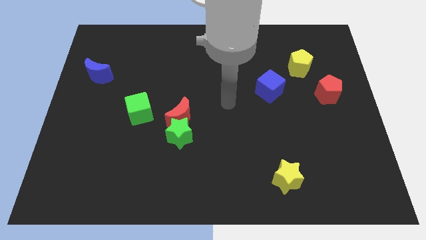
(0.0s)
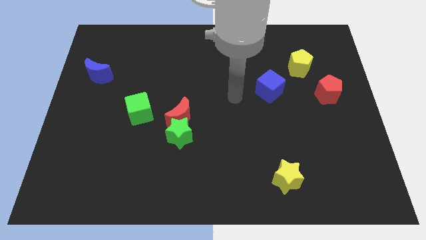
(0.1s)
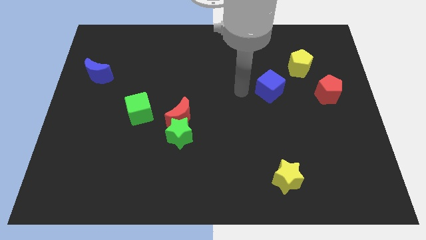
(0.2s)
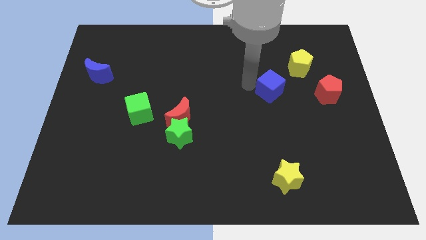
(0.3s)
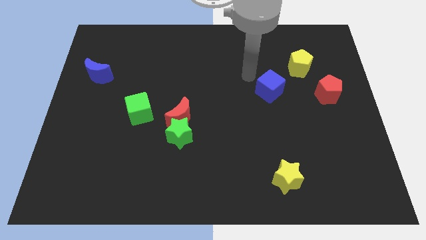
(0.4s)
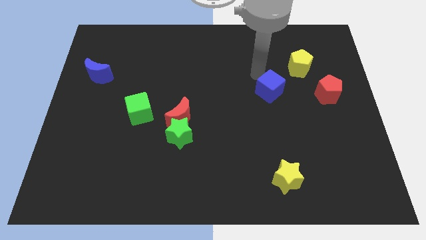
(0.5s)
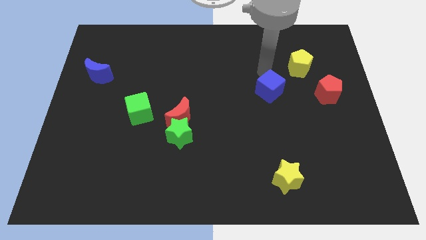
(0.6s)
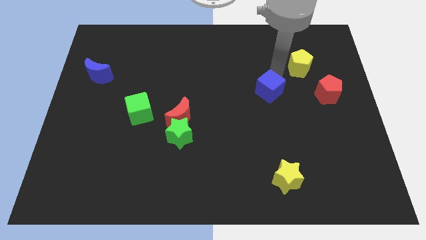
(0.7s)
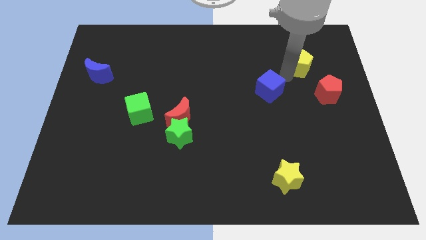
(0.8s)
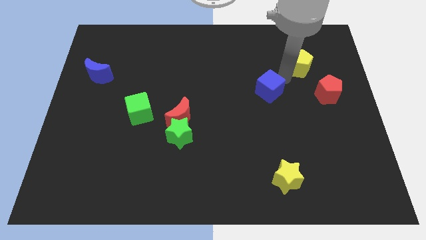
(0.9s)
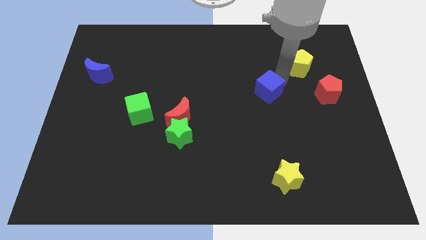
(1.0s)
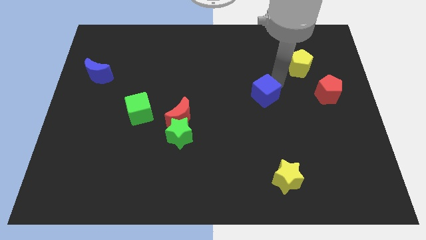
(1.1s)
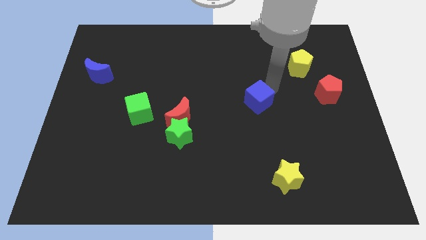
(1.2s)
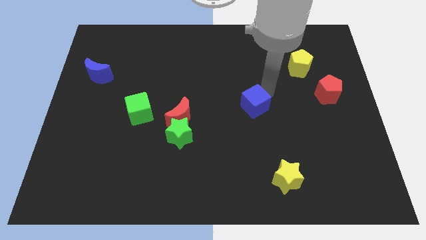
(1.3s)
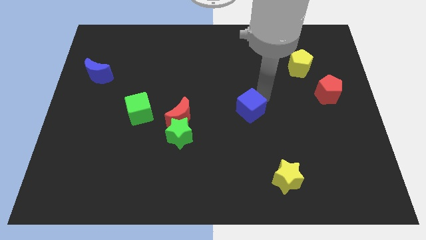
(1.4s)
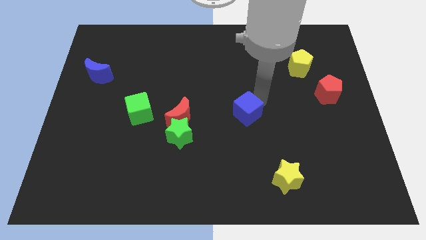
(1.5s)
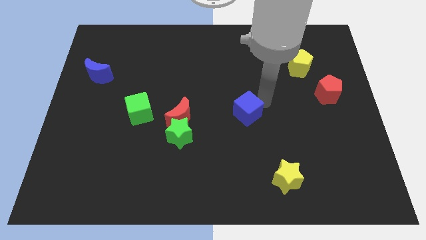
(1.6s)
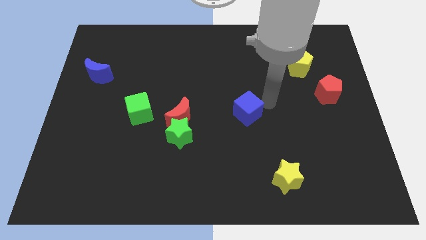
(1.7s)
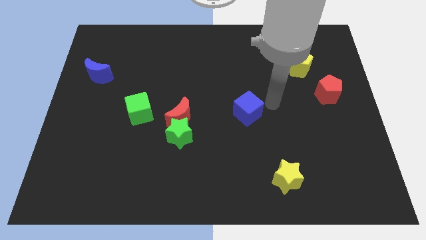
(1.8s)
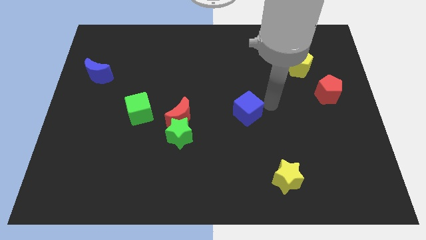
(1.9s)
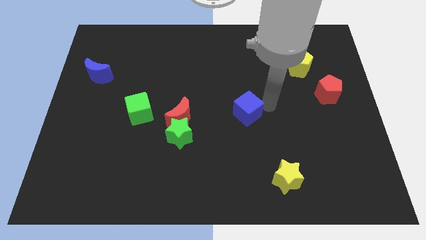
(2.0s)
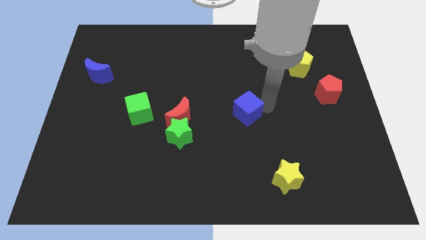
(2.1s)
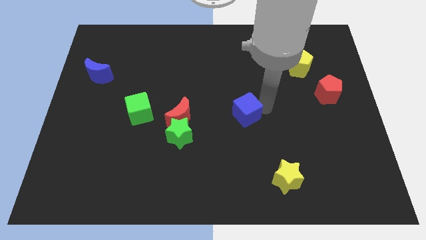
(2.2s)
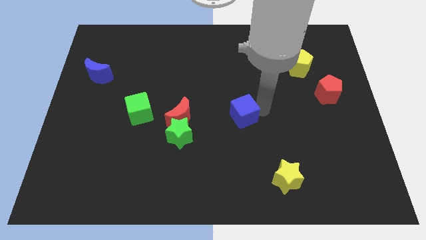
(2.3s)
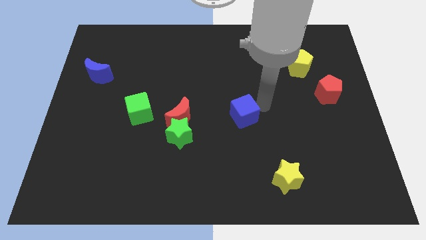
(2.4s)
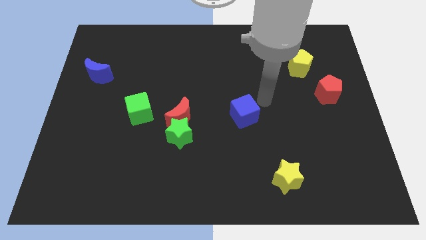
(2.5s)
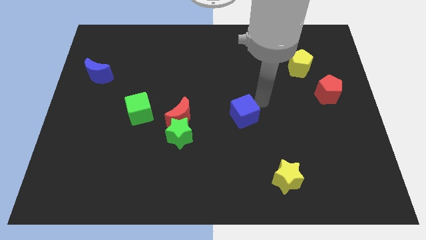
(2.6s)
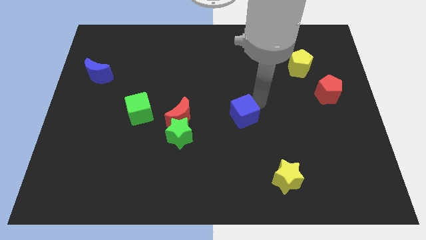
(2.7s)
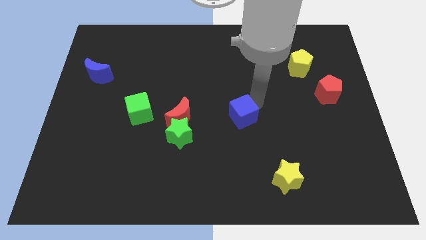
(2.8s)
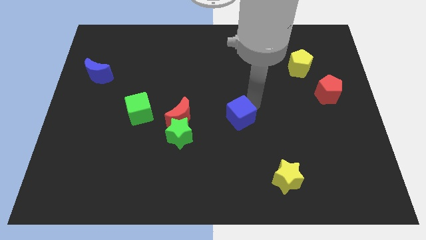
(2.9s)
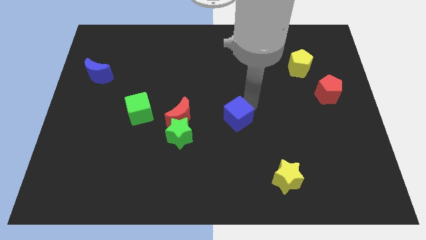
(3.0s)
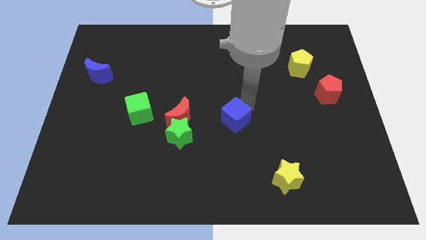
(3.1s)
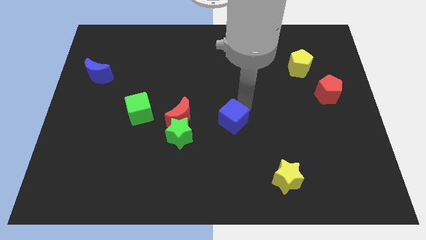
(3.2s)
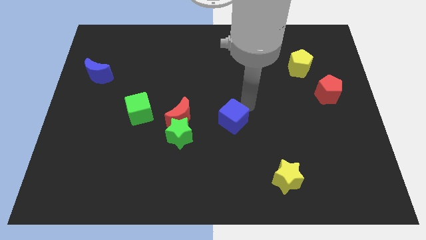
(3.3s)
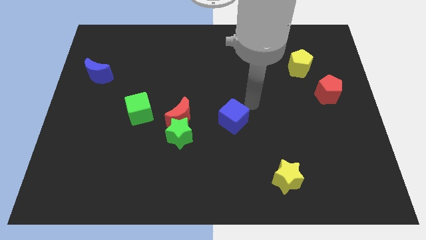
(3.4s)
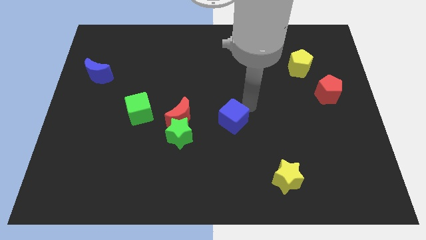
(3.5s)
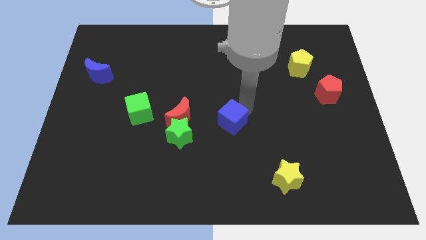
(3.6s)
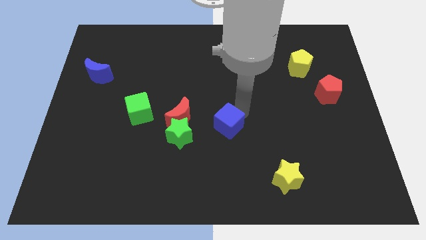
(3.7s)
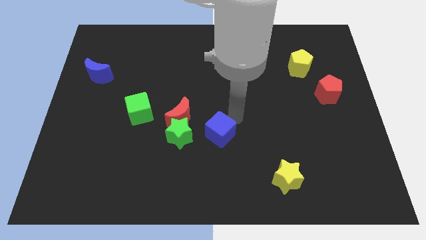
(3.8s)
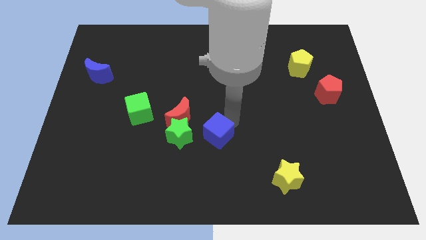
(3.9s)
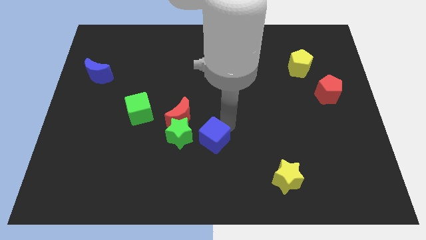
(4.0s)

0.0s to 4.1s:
move the blue cube downwards and to the left

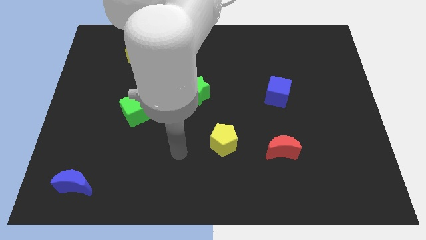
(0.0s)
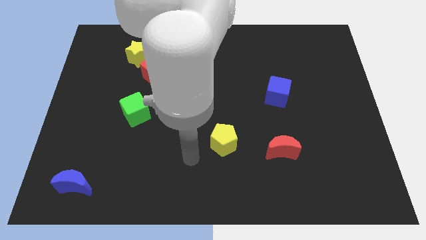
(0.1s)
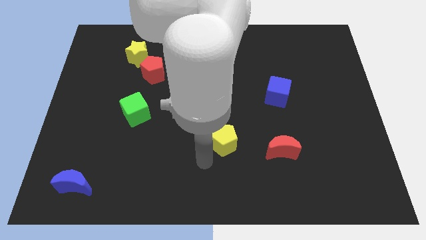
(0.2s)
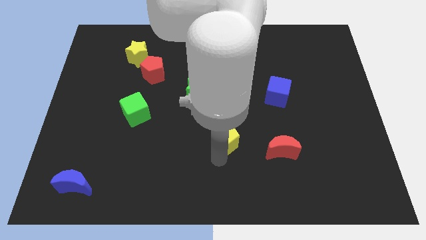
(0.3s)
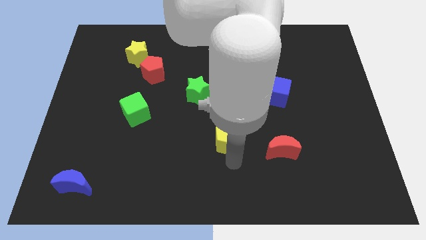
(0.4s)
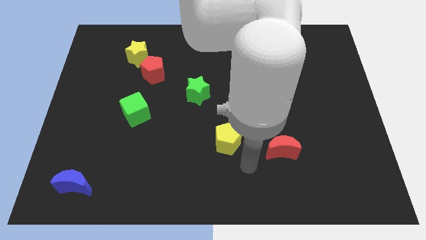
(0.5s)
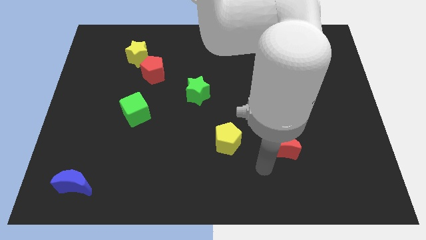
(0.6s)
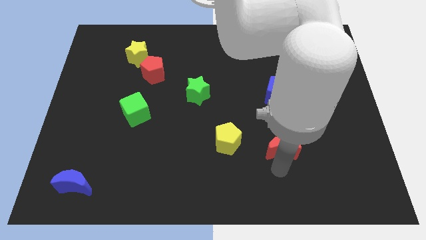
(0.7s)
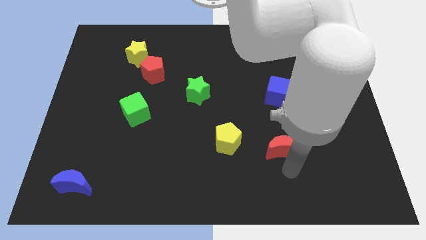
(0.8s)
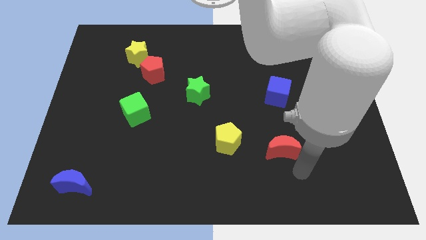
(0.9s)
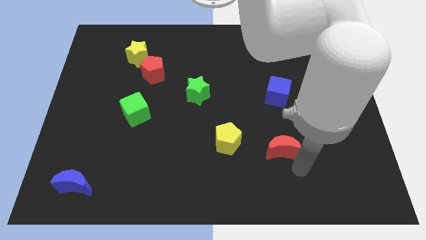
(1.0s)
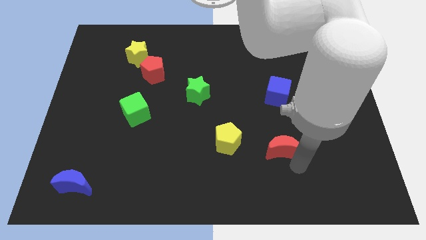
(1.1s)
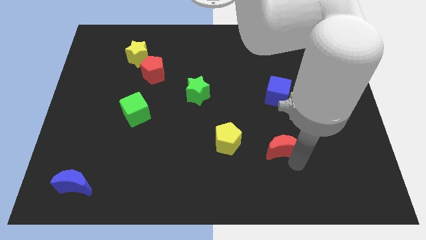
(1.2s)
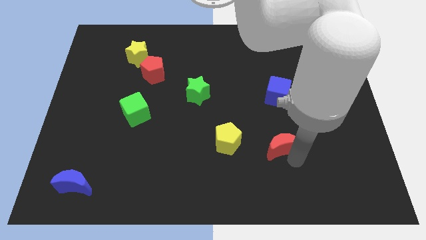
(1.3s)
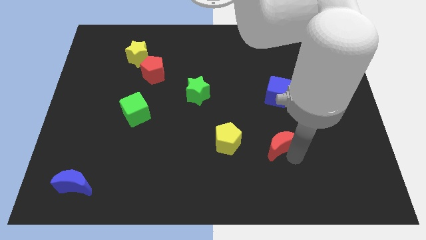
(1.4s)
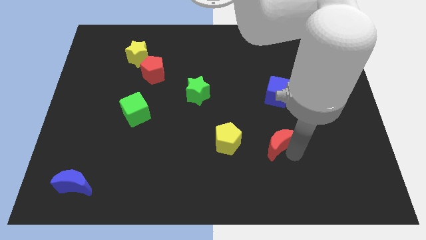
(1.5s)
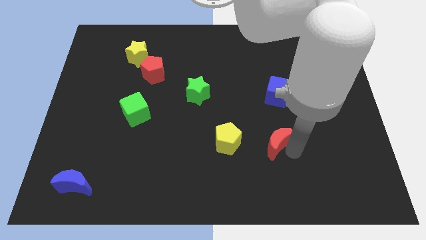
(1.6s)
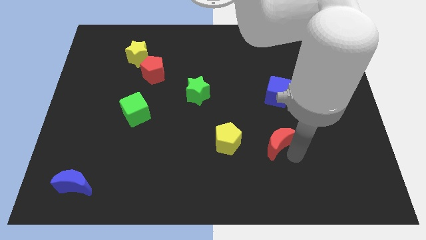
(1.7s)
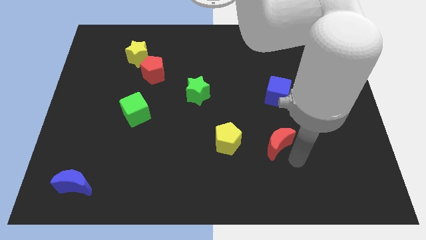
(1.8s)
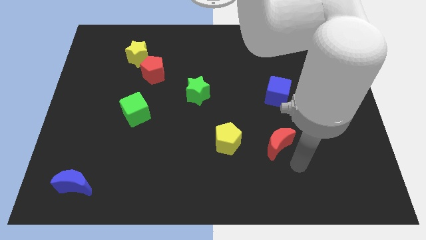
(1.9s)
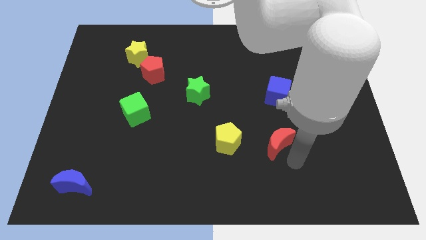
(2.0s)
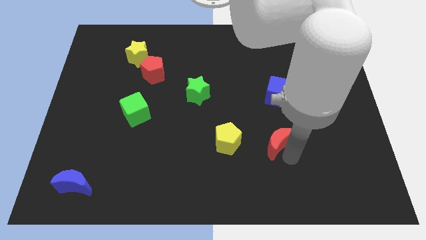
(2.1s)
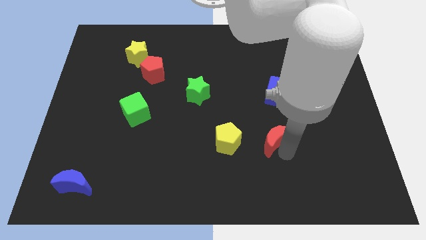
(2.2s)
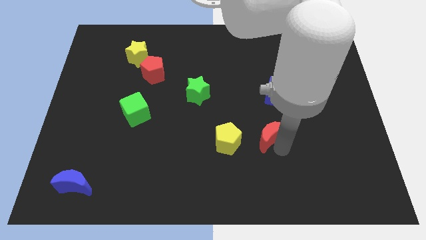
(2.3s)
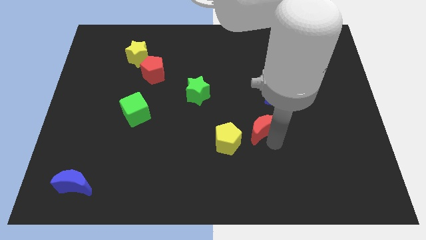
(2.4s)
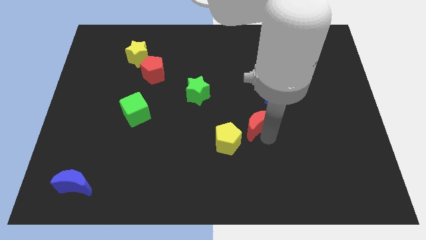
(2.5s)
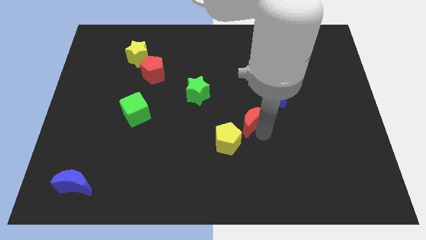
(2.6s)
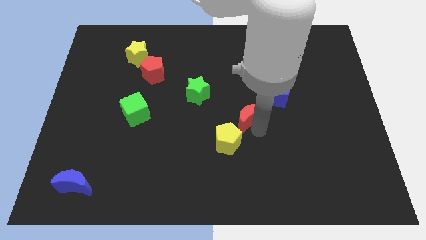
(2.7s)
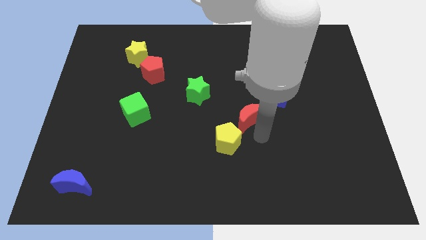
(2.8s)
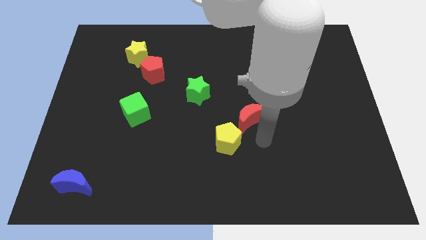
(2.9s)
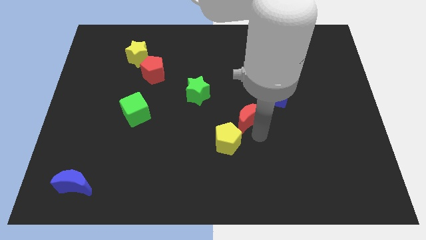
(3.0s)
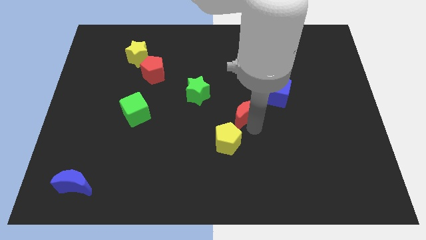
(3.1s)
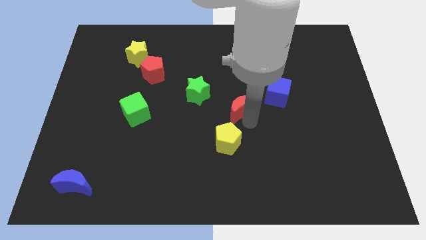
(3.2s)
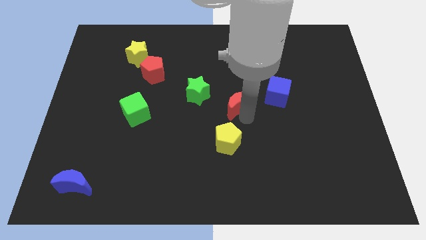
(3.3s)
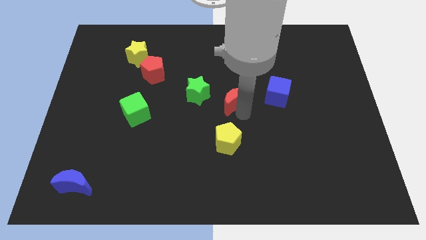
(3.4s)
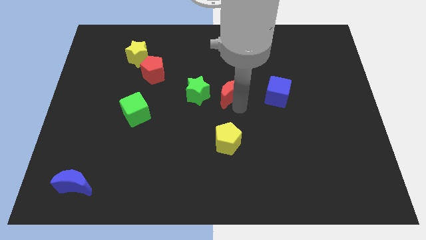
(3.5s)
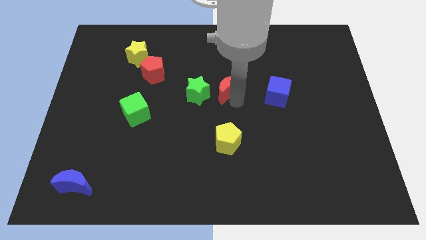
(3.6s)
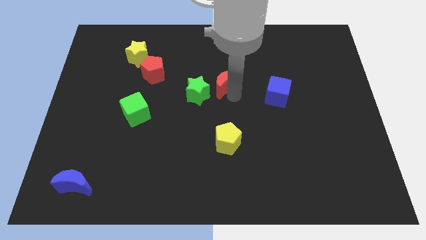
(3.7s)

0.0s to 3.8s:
push the red moon upwards and left
